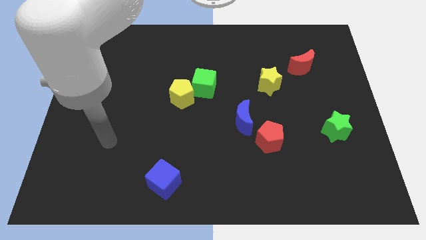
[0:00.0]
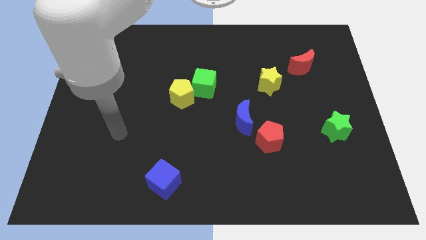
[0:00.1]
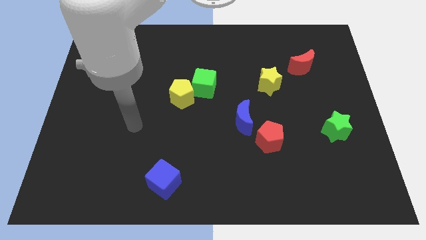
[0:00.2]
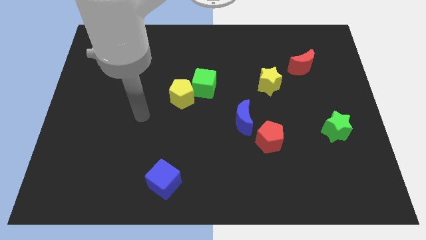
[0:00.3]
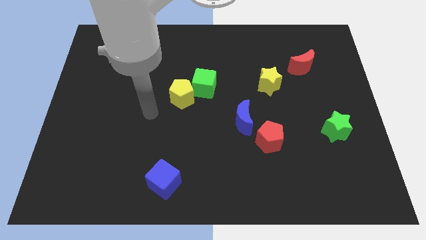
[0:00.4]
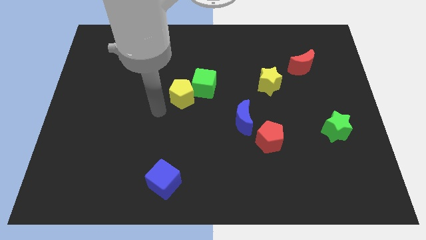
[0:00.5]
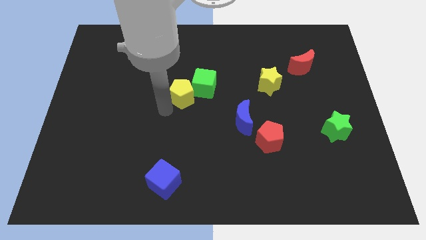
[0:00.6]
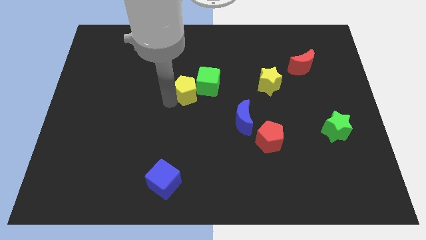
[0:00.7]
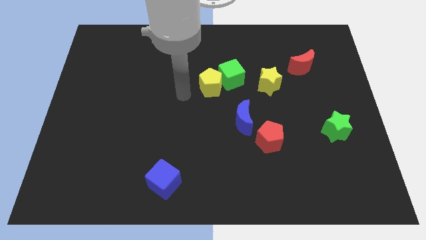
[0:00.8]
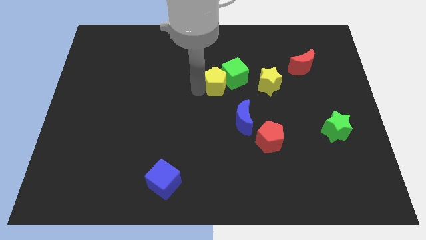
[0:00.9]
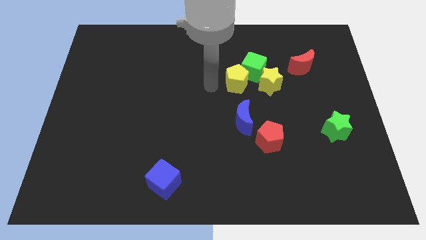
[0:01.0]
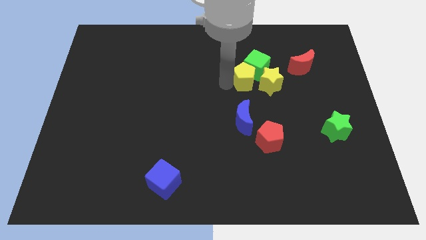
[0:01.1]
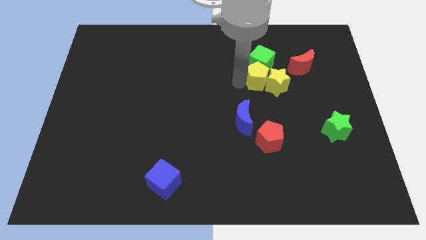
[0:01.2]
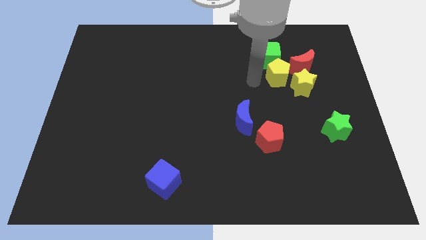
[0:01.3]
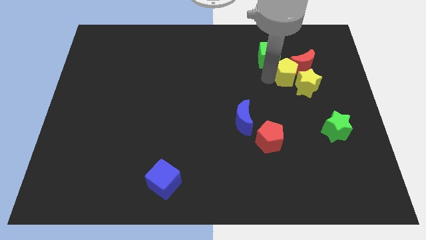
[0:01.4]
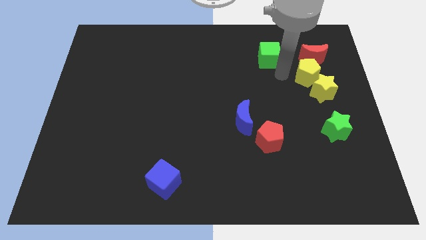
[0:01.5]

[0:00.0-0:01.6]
separate the green cube from the yellow pentagon

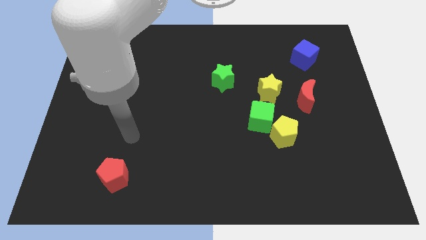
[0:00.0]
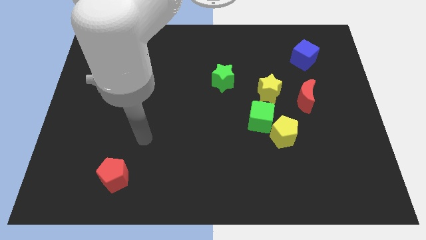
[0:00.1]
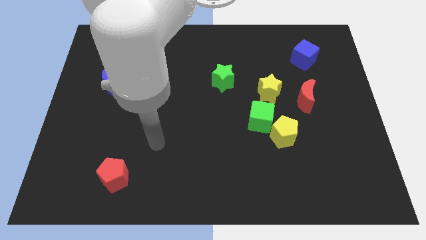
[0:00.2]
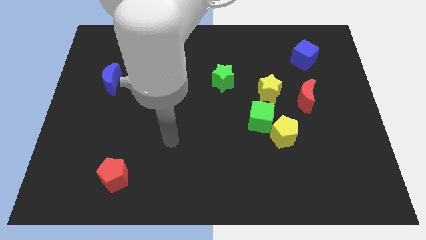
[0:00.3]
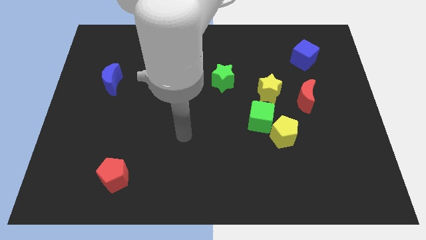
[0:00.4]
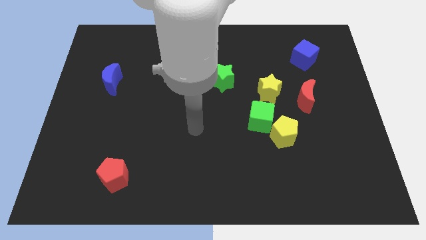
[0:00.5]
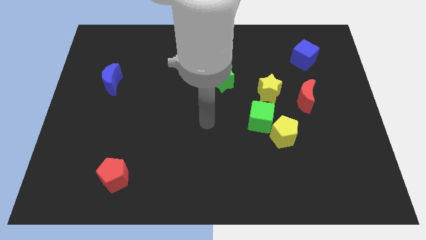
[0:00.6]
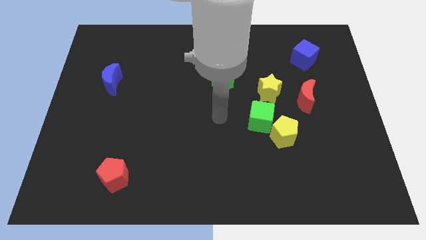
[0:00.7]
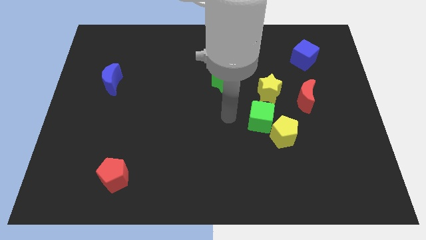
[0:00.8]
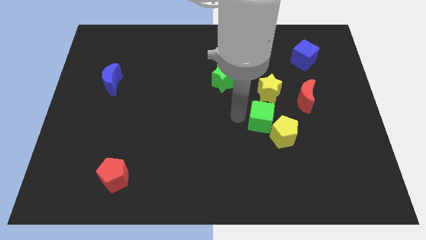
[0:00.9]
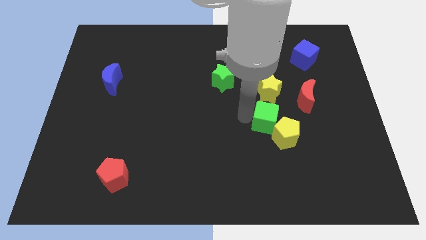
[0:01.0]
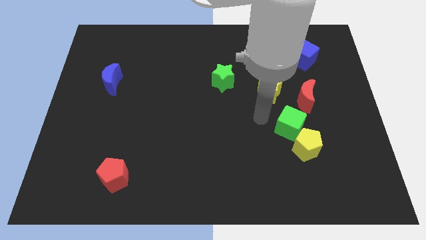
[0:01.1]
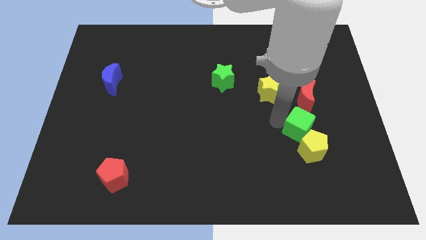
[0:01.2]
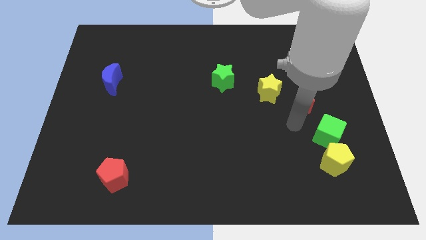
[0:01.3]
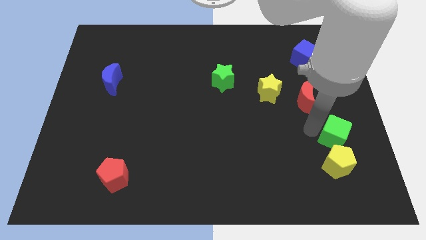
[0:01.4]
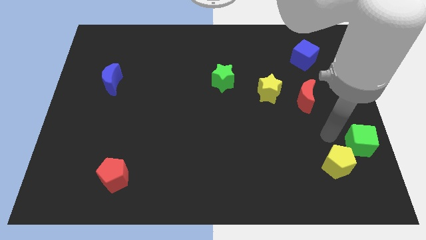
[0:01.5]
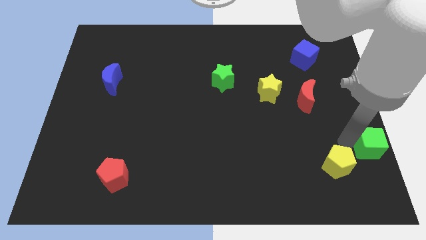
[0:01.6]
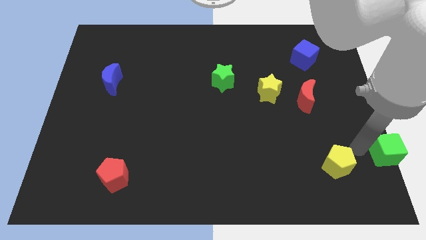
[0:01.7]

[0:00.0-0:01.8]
pull the yellow pentagon apart from the green cube

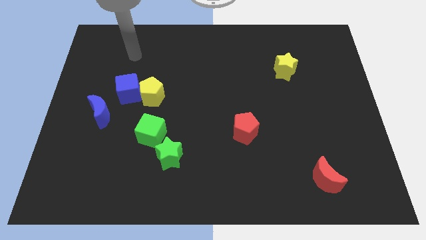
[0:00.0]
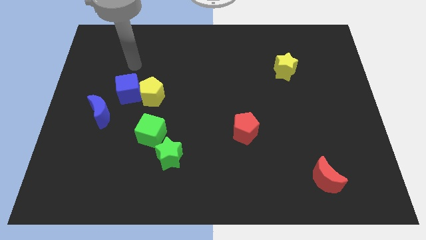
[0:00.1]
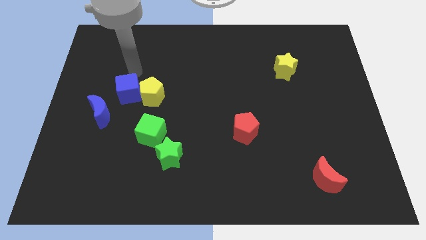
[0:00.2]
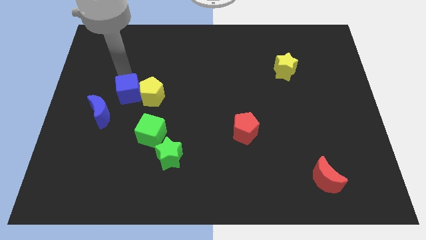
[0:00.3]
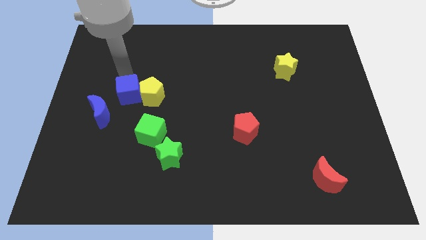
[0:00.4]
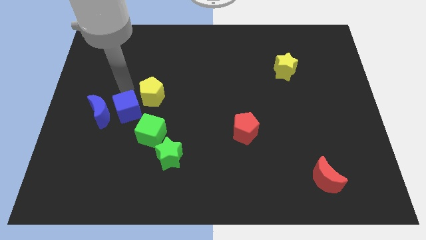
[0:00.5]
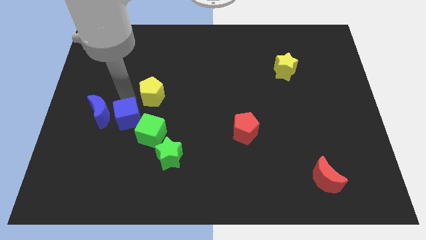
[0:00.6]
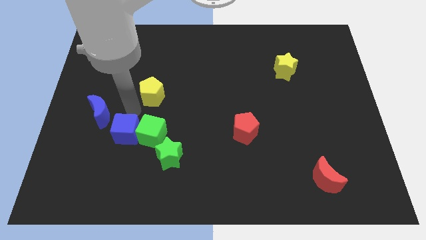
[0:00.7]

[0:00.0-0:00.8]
pull the yellow pentagon apart from the blue cube

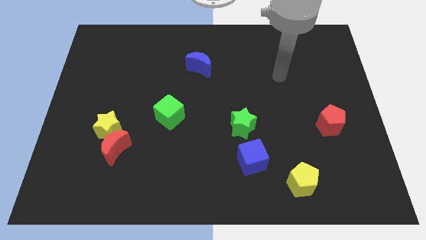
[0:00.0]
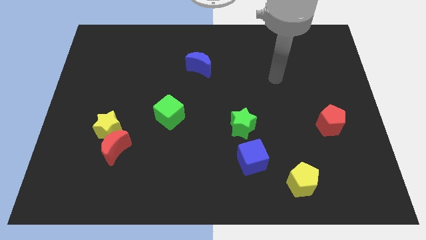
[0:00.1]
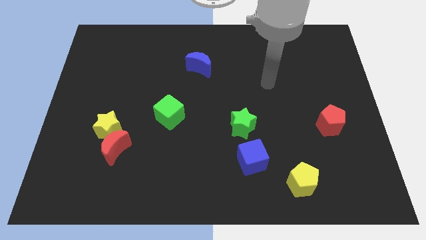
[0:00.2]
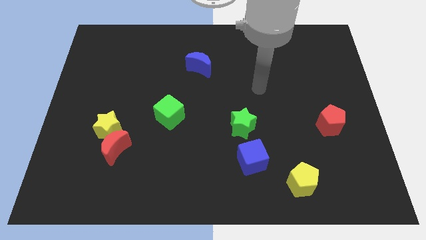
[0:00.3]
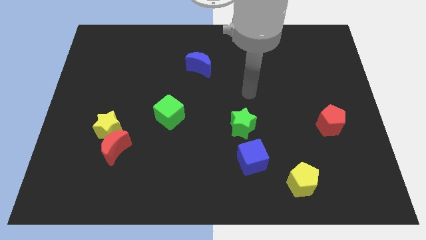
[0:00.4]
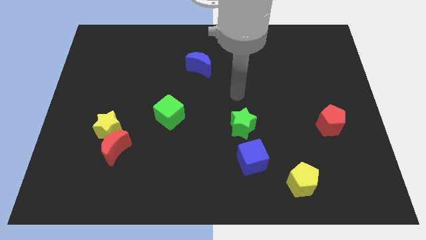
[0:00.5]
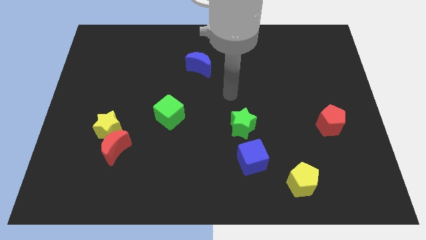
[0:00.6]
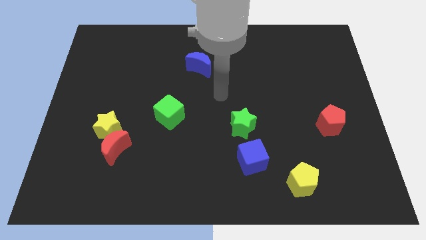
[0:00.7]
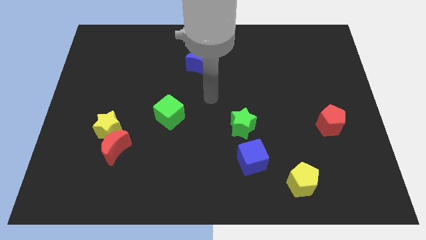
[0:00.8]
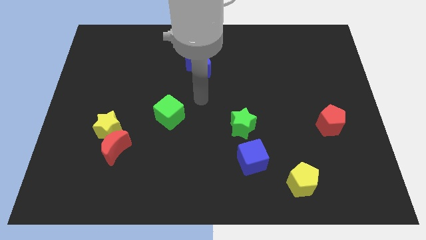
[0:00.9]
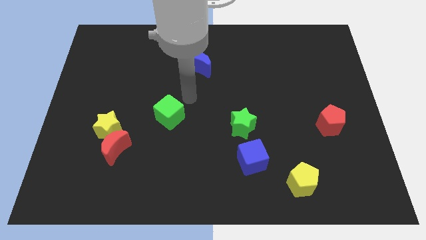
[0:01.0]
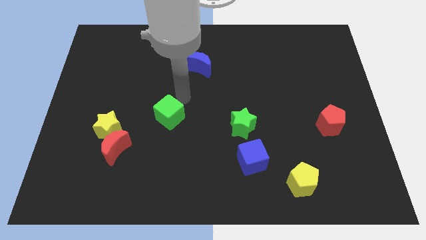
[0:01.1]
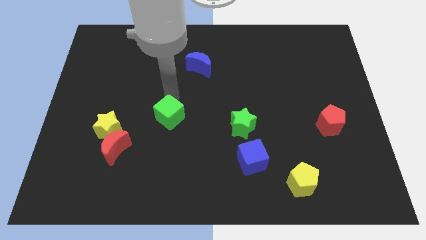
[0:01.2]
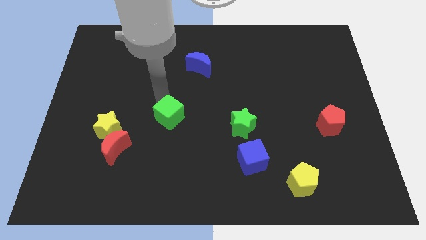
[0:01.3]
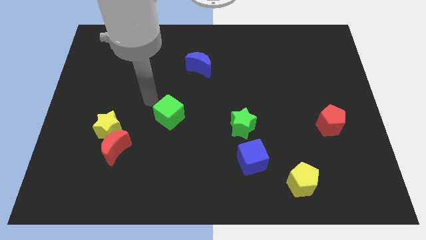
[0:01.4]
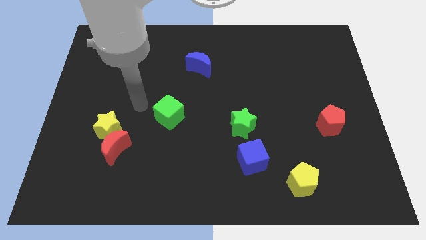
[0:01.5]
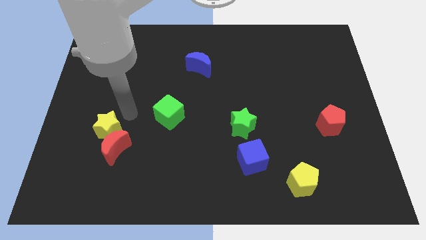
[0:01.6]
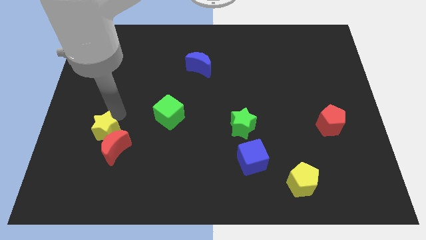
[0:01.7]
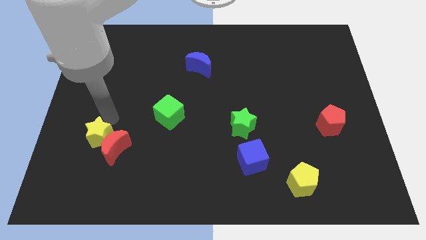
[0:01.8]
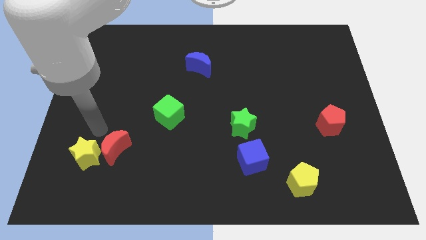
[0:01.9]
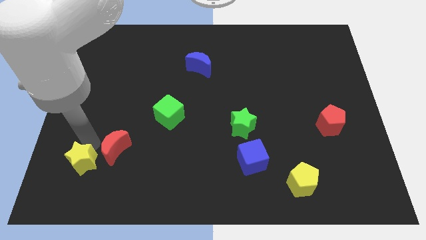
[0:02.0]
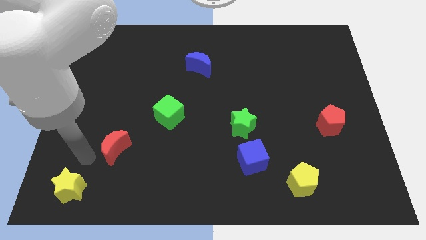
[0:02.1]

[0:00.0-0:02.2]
move the red moon away from the yellow star

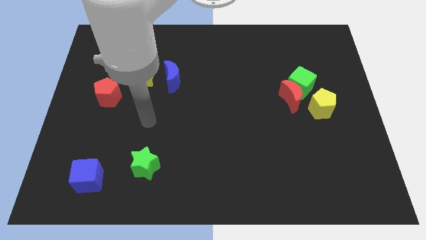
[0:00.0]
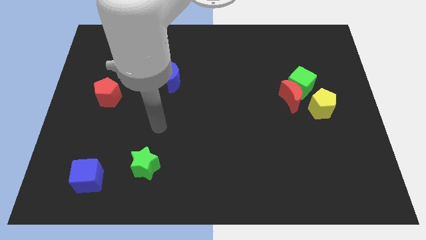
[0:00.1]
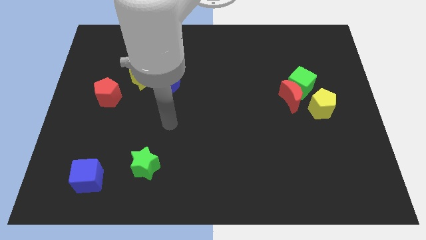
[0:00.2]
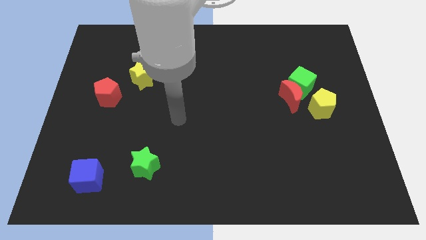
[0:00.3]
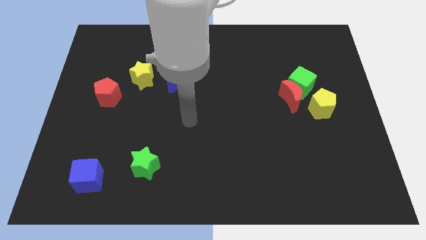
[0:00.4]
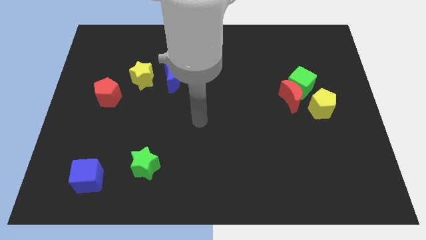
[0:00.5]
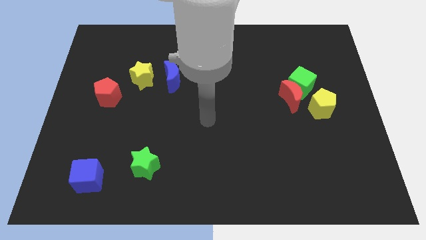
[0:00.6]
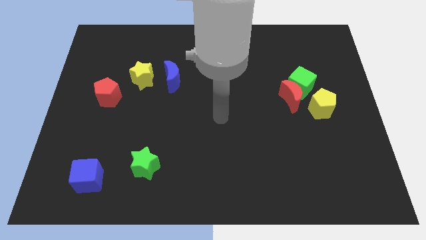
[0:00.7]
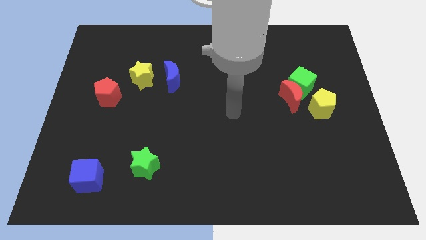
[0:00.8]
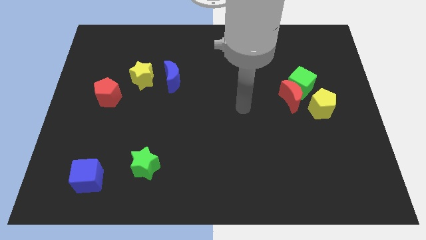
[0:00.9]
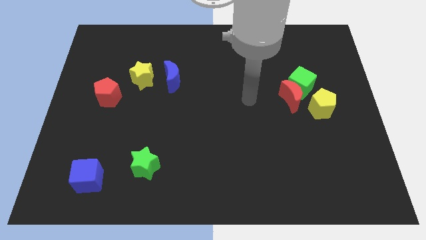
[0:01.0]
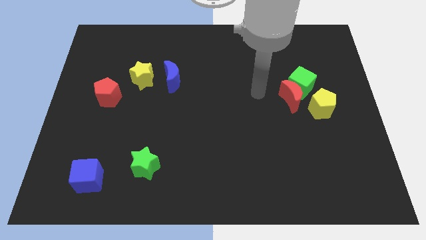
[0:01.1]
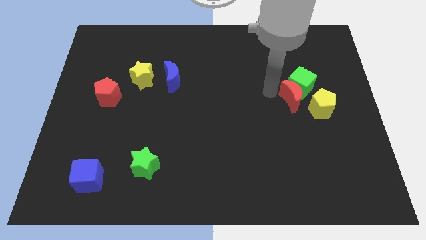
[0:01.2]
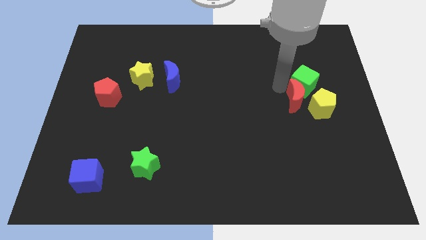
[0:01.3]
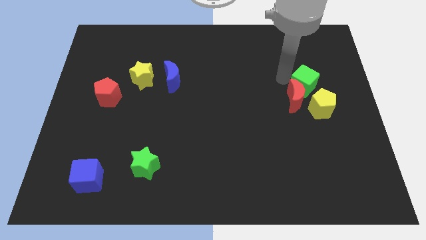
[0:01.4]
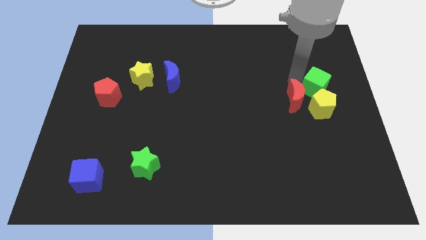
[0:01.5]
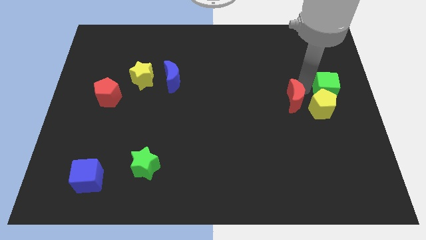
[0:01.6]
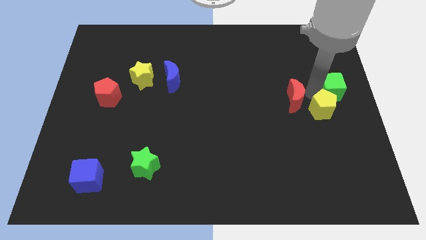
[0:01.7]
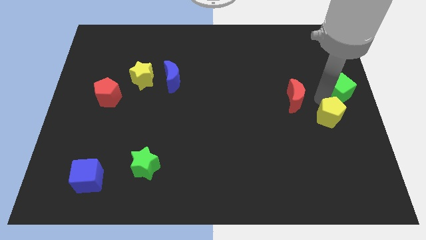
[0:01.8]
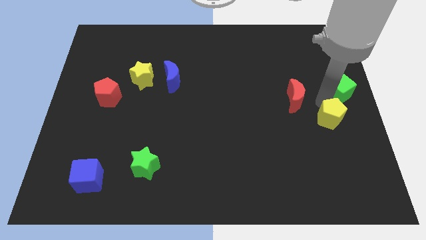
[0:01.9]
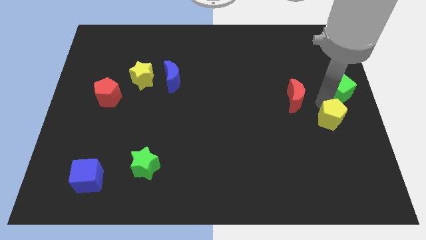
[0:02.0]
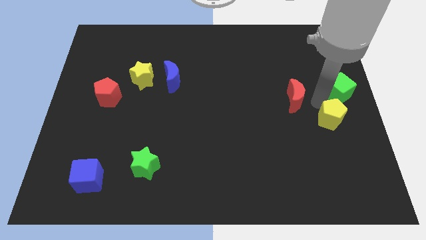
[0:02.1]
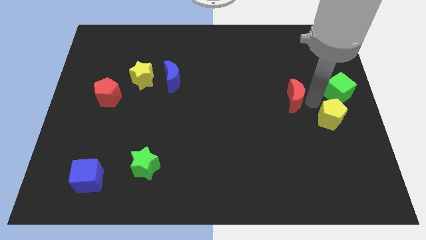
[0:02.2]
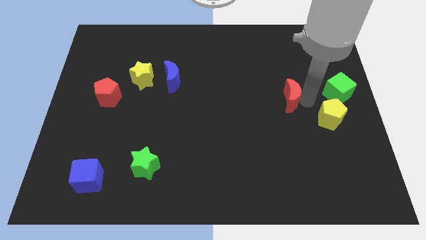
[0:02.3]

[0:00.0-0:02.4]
separate the red moon from the green cube and yellow pentagon

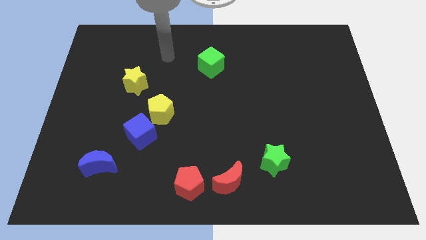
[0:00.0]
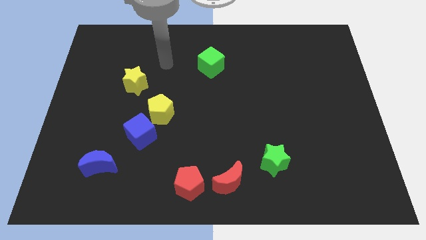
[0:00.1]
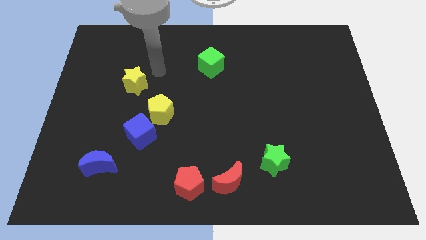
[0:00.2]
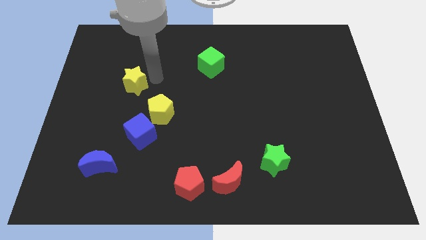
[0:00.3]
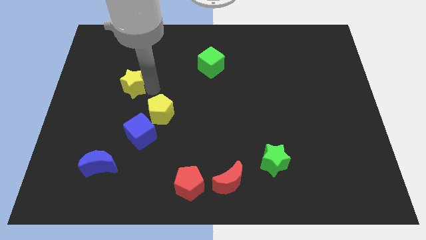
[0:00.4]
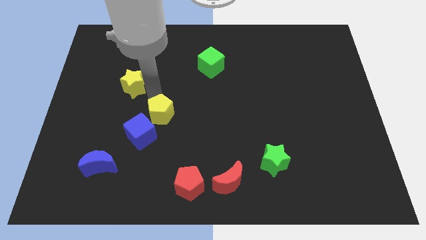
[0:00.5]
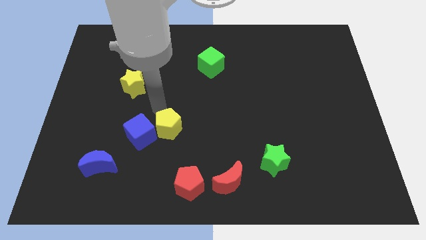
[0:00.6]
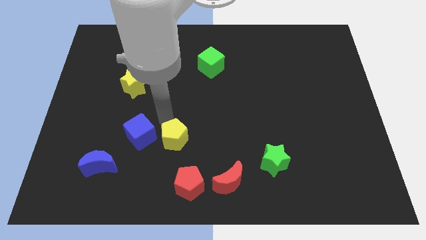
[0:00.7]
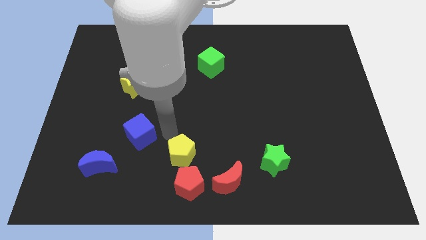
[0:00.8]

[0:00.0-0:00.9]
separate the blue cube from the yellow pentagon
